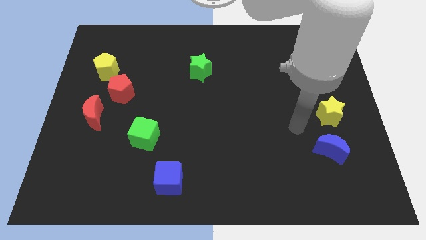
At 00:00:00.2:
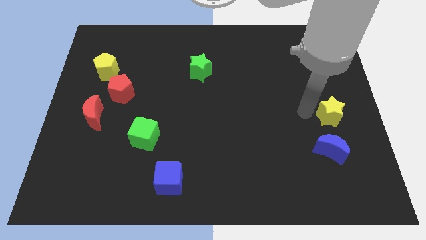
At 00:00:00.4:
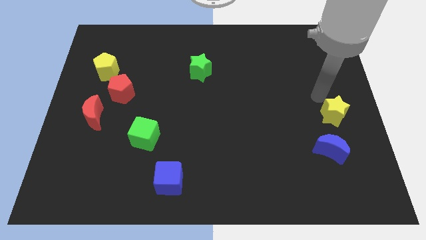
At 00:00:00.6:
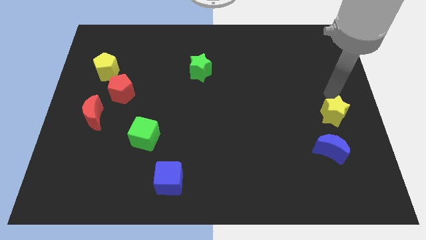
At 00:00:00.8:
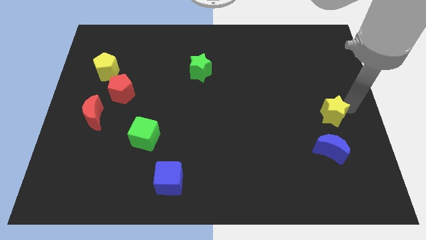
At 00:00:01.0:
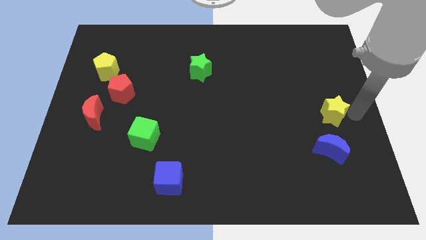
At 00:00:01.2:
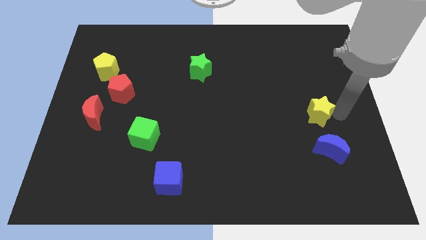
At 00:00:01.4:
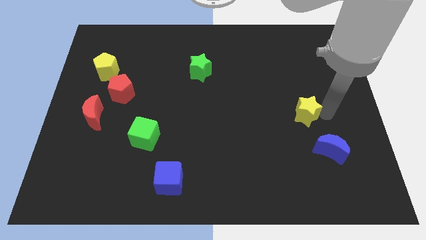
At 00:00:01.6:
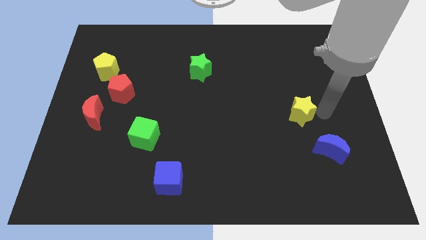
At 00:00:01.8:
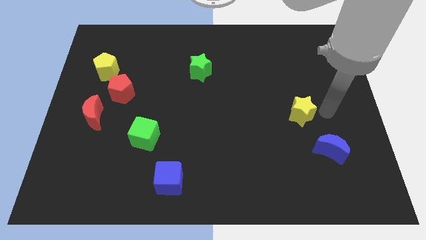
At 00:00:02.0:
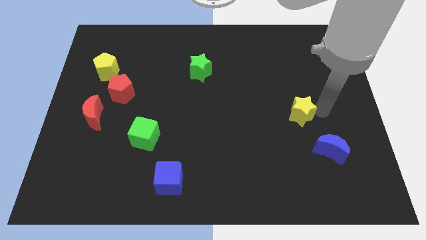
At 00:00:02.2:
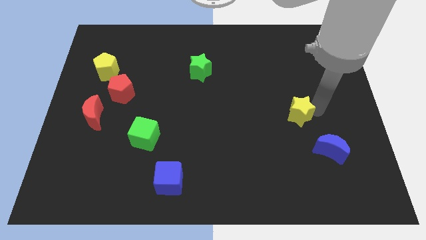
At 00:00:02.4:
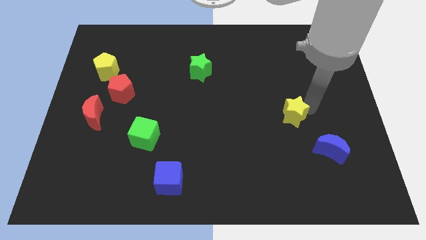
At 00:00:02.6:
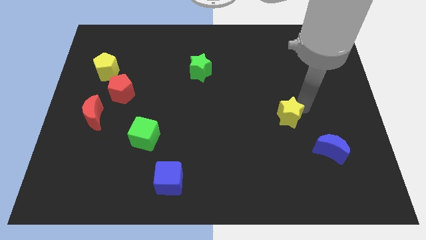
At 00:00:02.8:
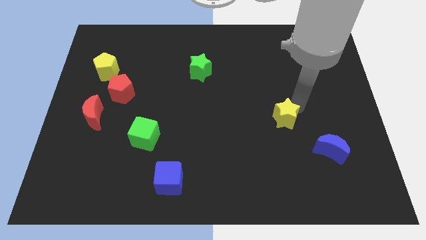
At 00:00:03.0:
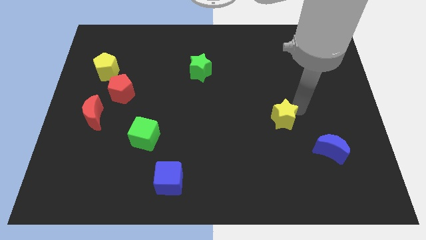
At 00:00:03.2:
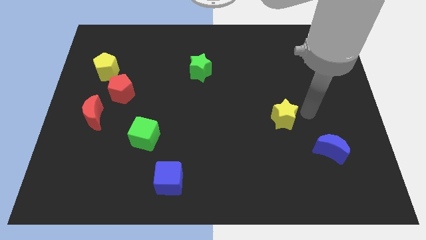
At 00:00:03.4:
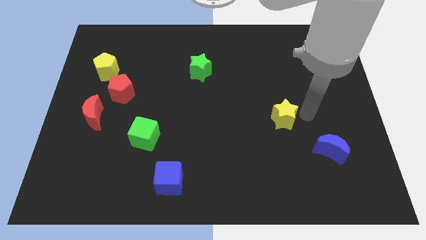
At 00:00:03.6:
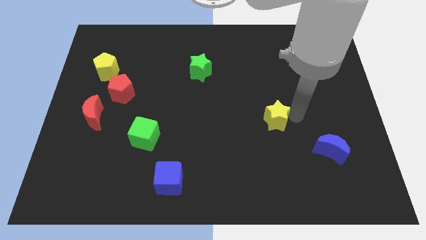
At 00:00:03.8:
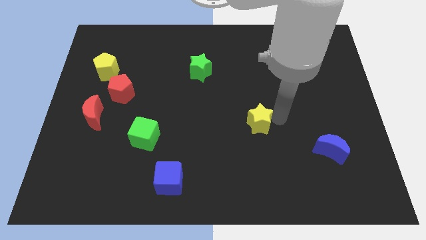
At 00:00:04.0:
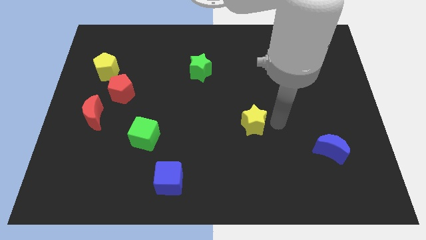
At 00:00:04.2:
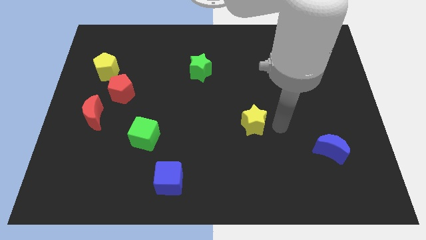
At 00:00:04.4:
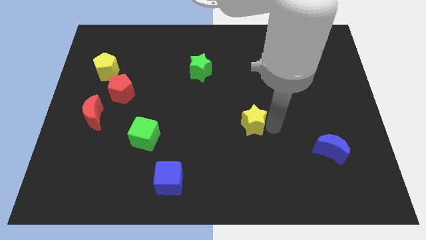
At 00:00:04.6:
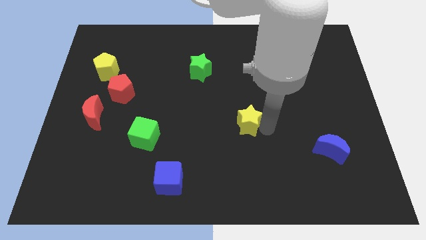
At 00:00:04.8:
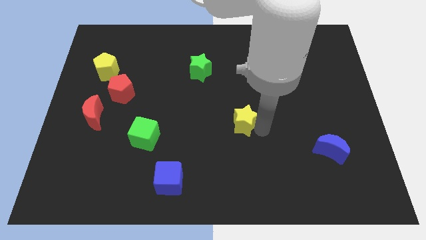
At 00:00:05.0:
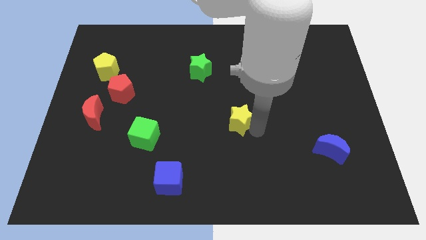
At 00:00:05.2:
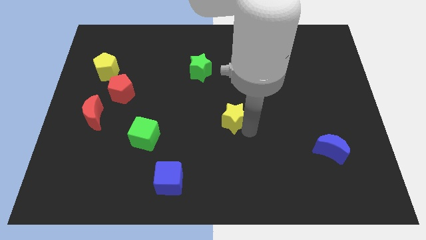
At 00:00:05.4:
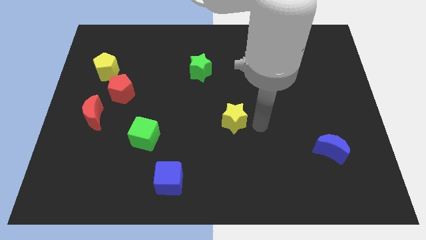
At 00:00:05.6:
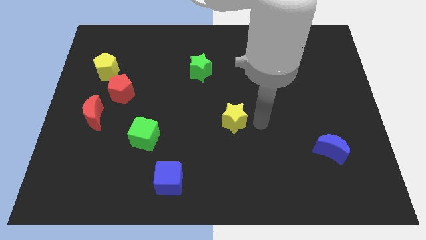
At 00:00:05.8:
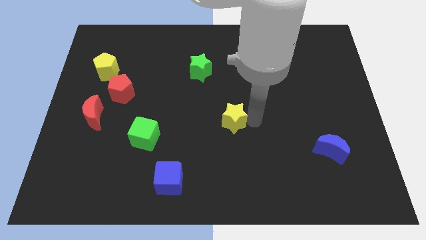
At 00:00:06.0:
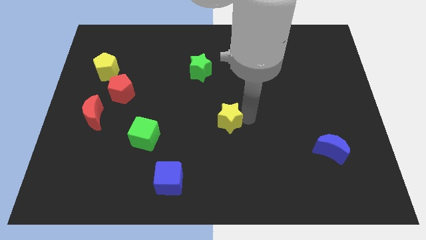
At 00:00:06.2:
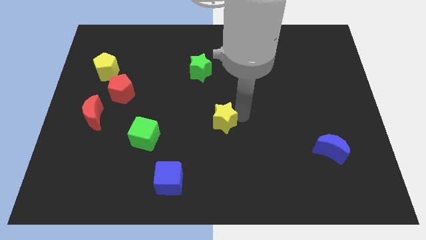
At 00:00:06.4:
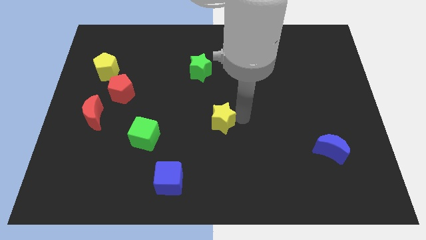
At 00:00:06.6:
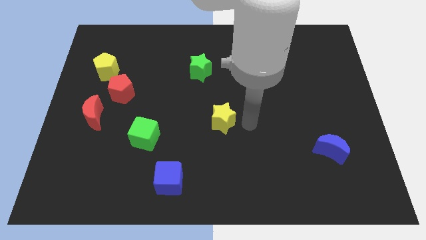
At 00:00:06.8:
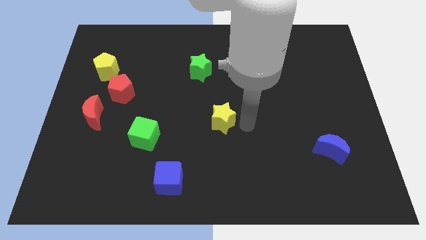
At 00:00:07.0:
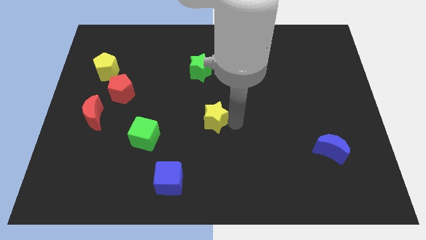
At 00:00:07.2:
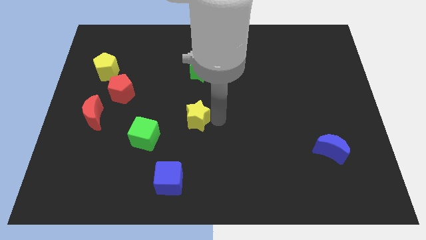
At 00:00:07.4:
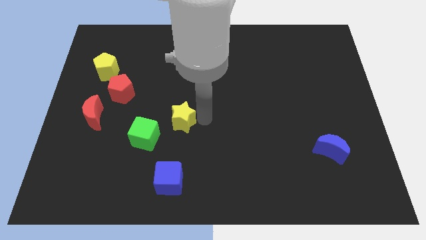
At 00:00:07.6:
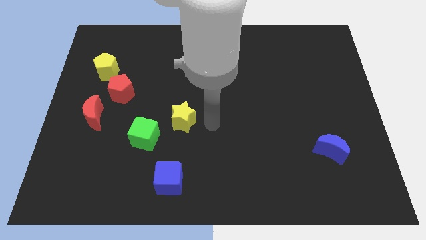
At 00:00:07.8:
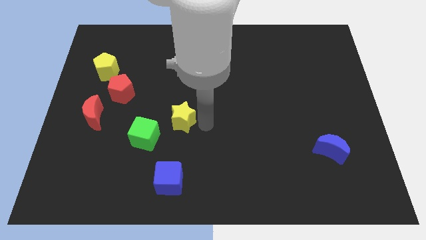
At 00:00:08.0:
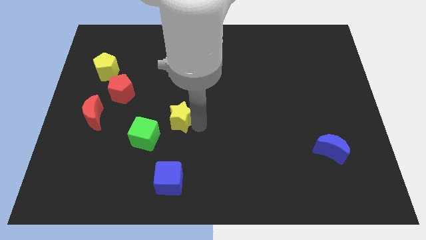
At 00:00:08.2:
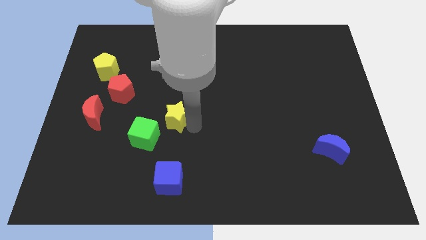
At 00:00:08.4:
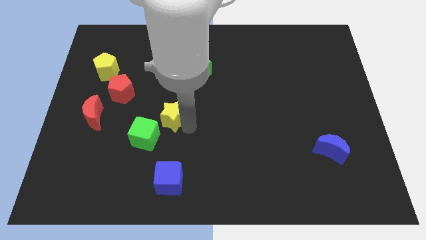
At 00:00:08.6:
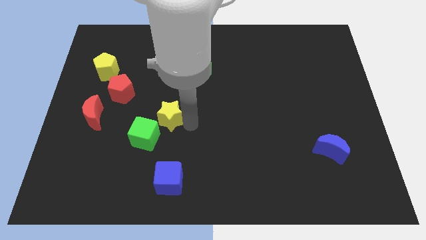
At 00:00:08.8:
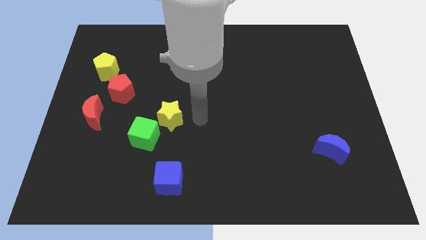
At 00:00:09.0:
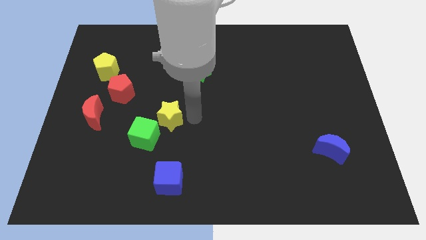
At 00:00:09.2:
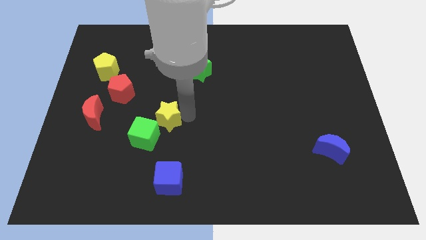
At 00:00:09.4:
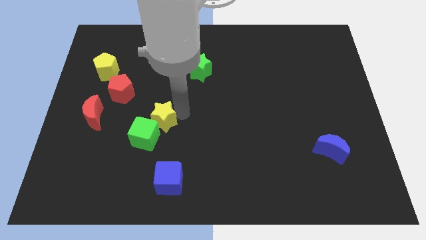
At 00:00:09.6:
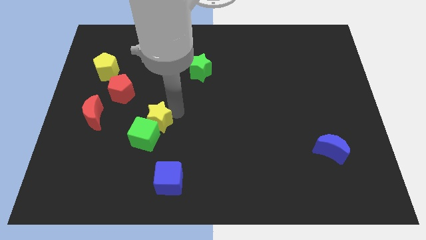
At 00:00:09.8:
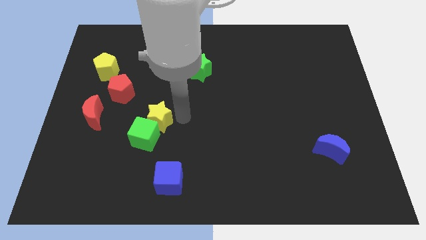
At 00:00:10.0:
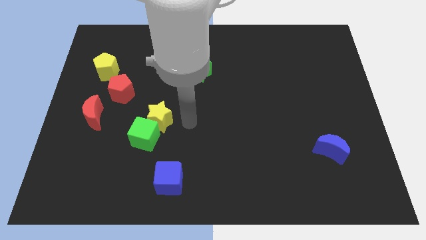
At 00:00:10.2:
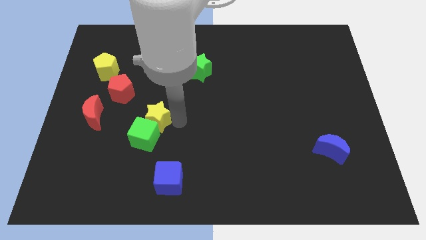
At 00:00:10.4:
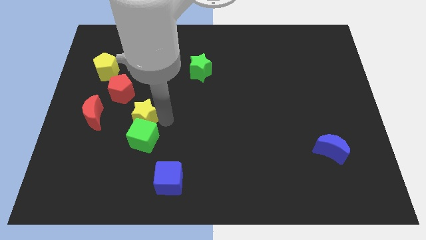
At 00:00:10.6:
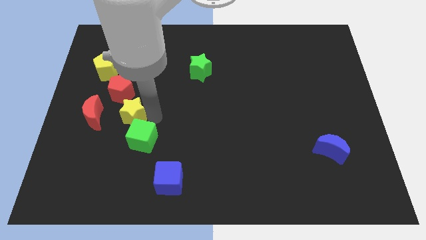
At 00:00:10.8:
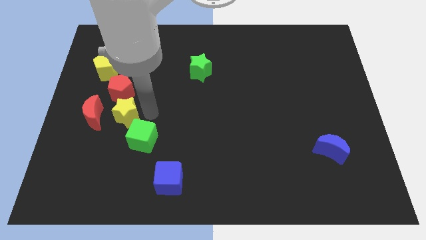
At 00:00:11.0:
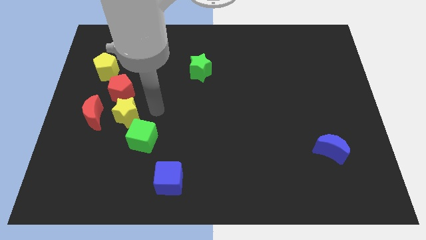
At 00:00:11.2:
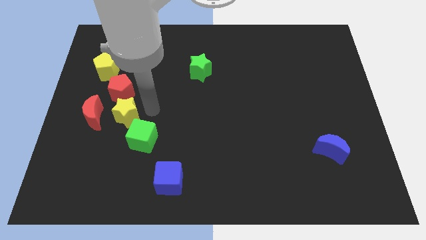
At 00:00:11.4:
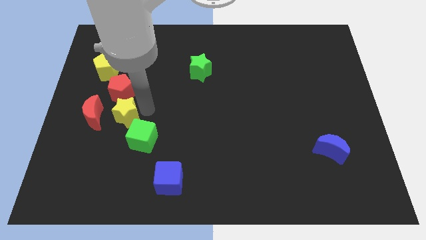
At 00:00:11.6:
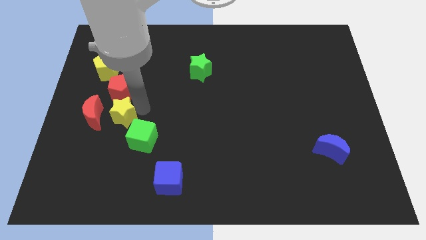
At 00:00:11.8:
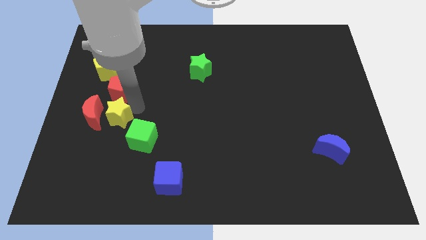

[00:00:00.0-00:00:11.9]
push the yellow star next to the red moon

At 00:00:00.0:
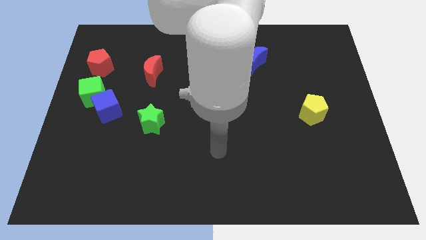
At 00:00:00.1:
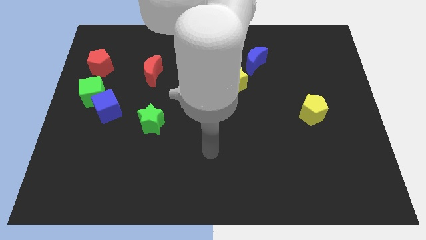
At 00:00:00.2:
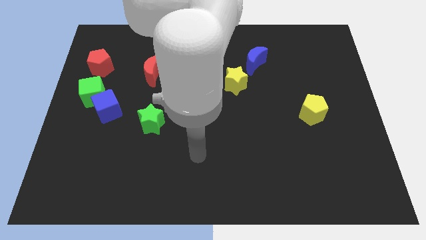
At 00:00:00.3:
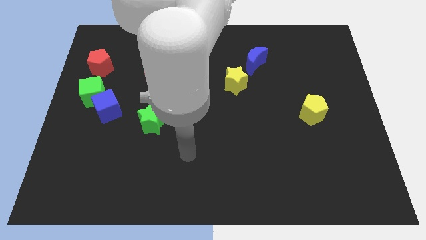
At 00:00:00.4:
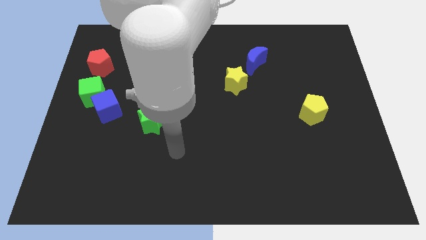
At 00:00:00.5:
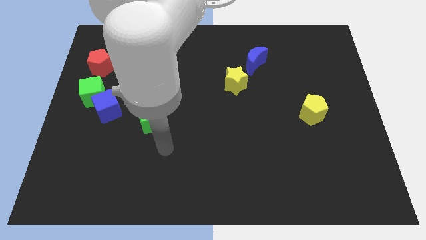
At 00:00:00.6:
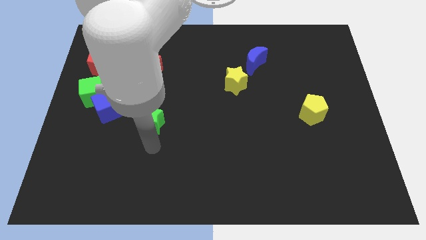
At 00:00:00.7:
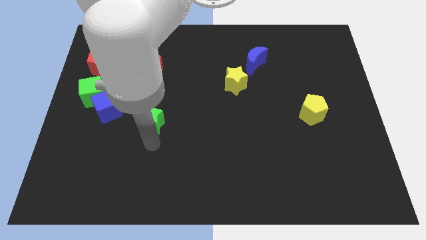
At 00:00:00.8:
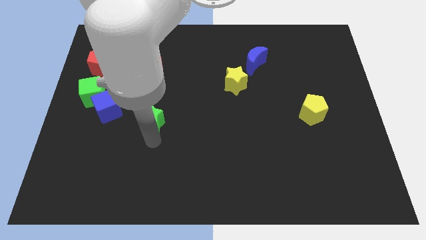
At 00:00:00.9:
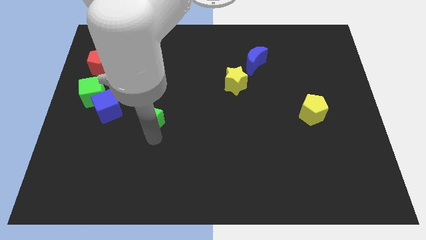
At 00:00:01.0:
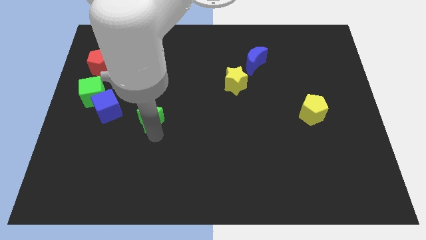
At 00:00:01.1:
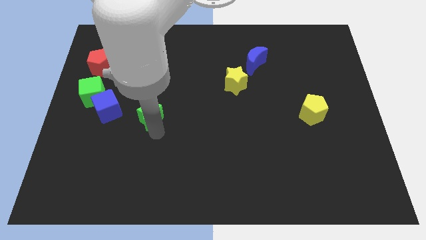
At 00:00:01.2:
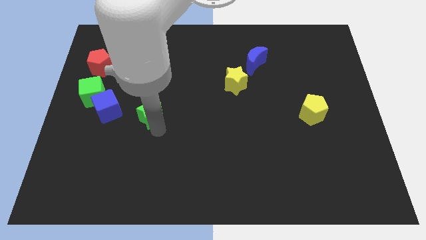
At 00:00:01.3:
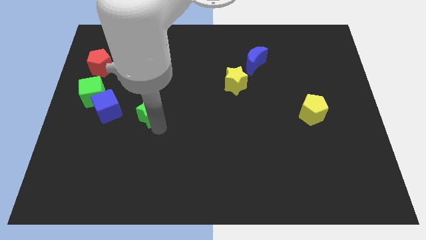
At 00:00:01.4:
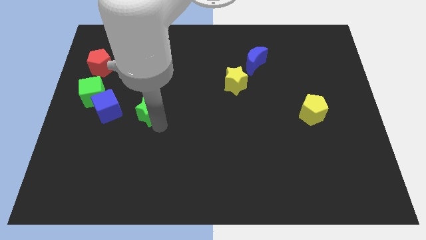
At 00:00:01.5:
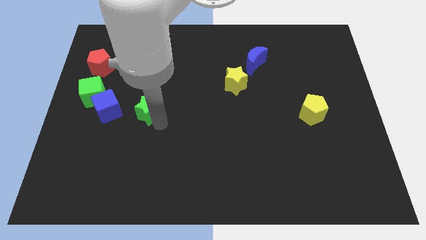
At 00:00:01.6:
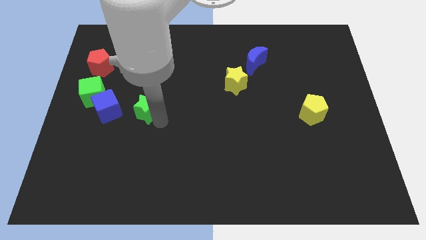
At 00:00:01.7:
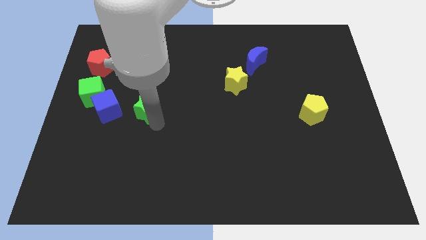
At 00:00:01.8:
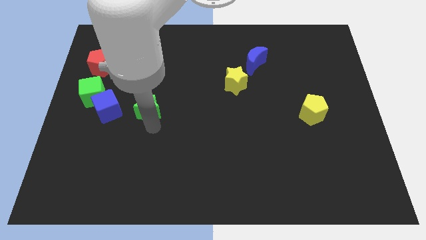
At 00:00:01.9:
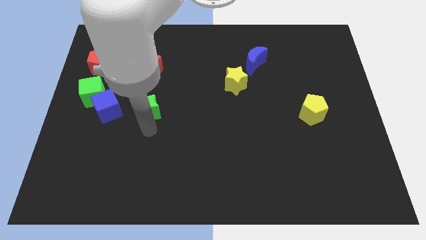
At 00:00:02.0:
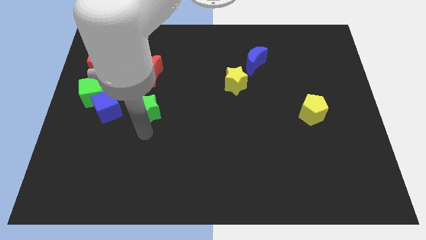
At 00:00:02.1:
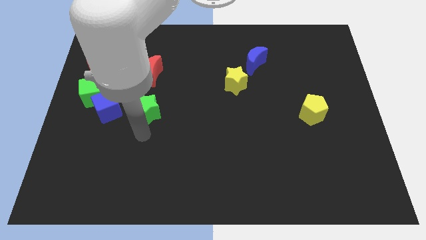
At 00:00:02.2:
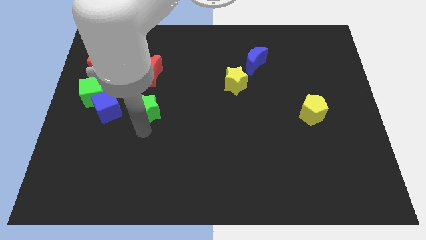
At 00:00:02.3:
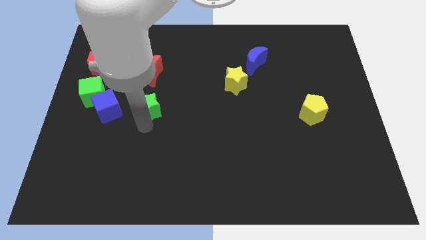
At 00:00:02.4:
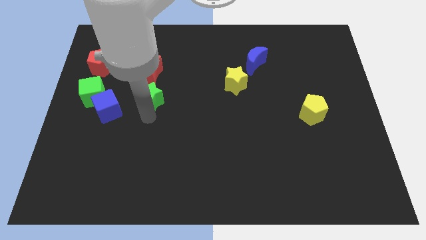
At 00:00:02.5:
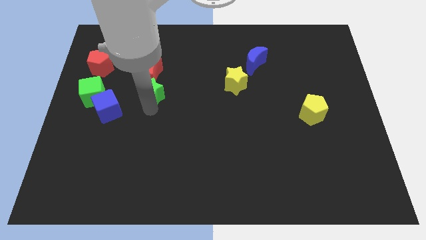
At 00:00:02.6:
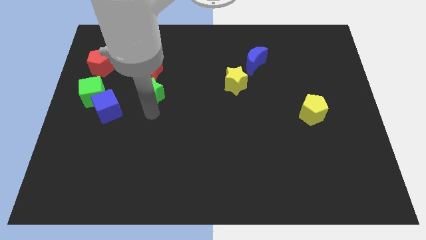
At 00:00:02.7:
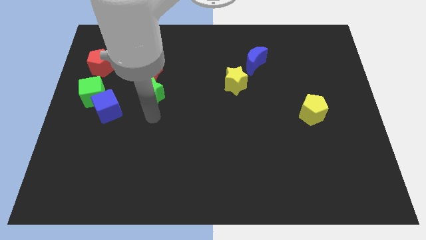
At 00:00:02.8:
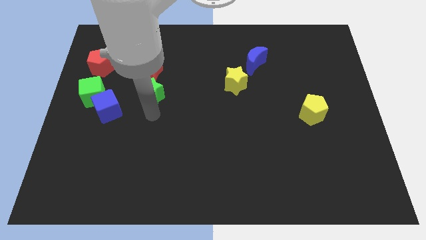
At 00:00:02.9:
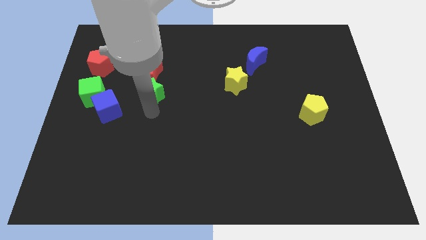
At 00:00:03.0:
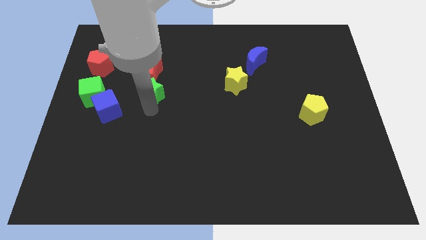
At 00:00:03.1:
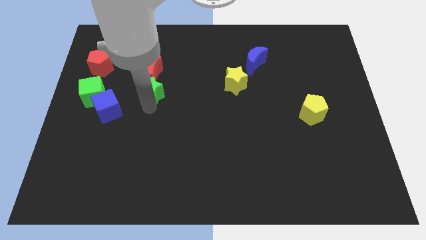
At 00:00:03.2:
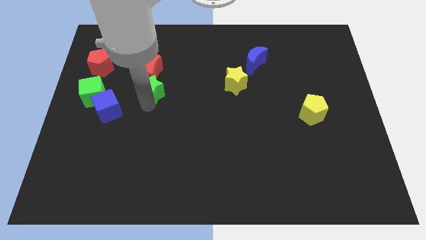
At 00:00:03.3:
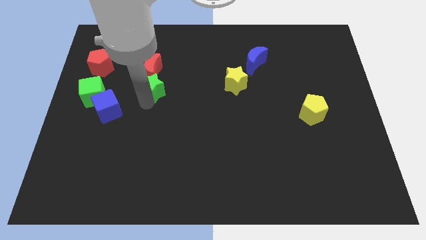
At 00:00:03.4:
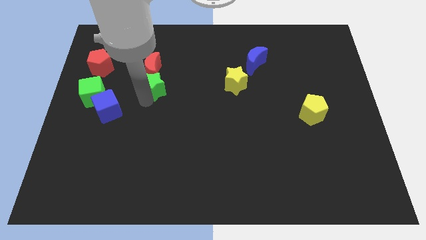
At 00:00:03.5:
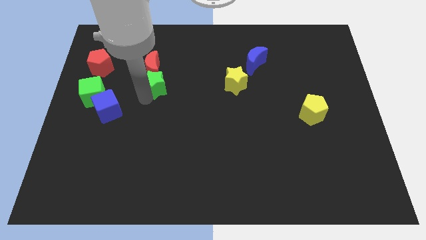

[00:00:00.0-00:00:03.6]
push the green star next to the red moon
